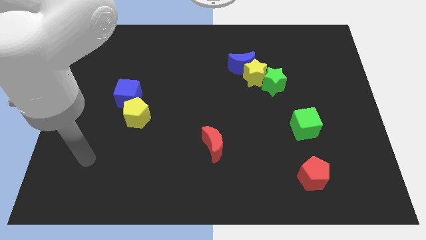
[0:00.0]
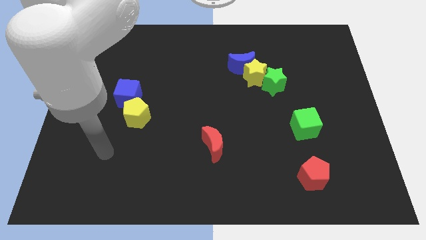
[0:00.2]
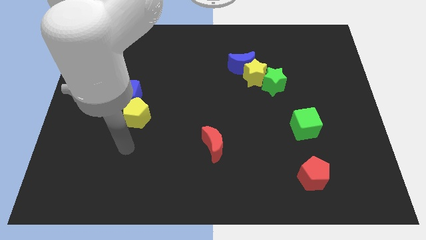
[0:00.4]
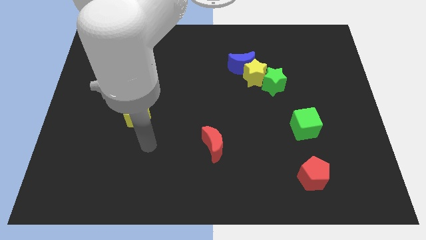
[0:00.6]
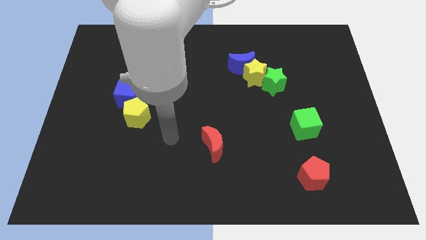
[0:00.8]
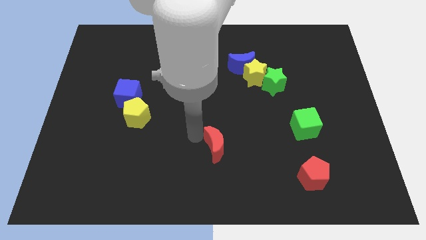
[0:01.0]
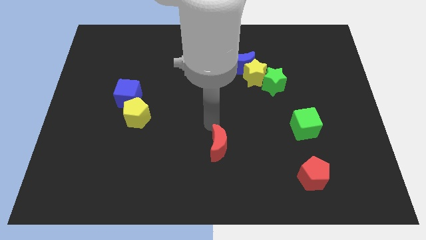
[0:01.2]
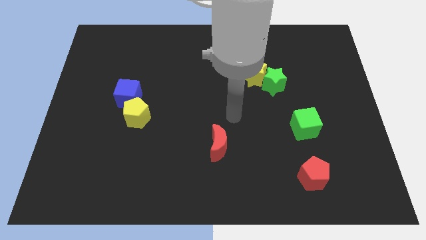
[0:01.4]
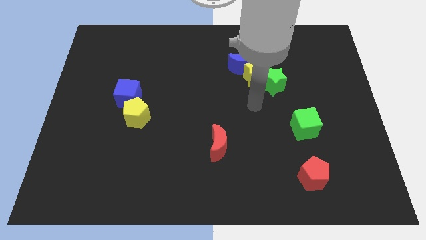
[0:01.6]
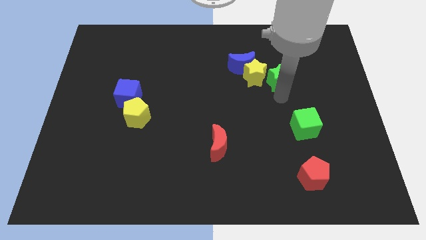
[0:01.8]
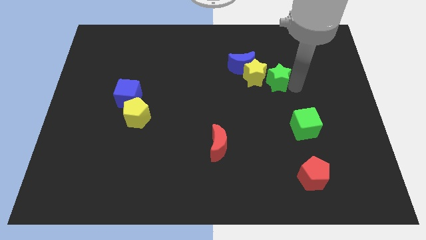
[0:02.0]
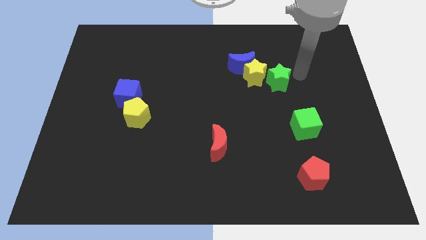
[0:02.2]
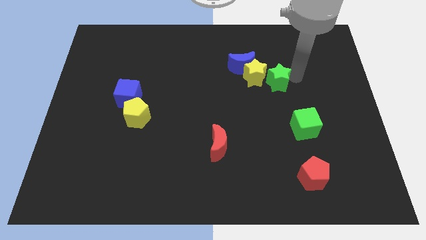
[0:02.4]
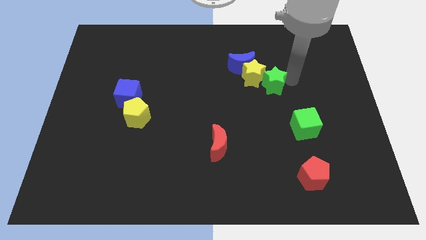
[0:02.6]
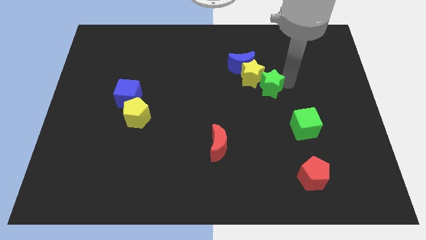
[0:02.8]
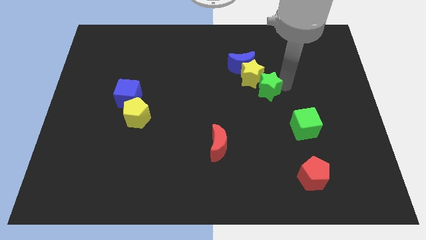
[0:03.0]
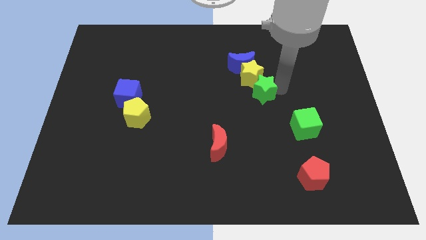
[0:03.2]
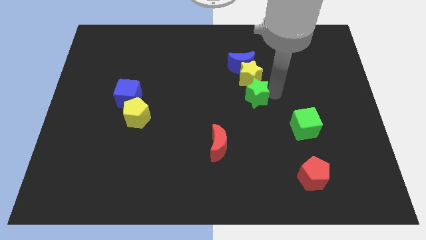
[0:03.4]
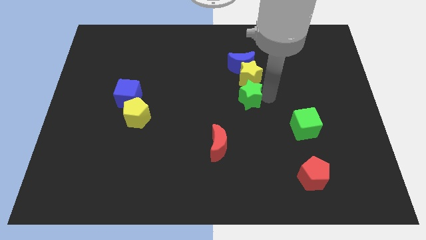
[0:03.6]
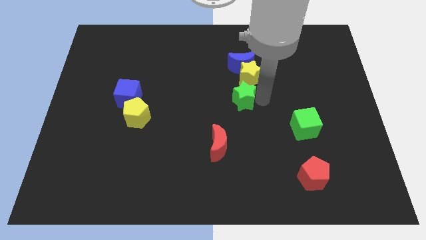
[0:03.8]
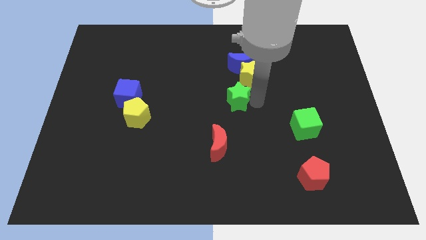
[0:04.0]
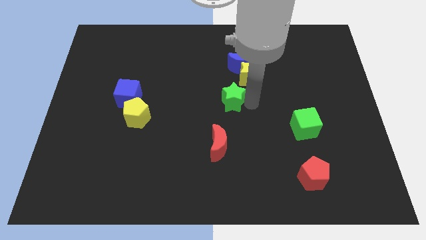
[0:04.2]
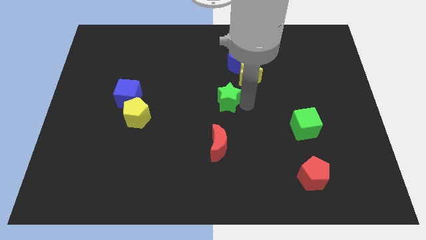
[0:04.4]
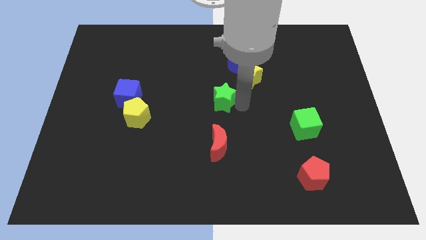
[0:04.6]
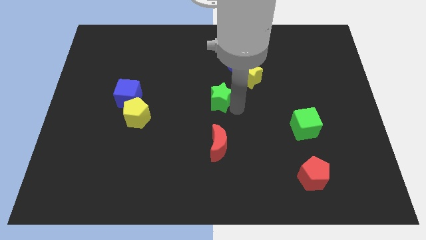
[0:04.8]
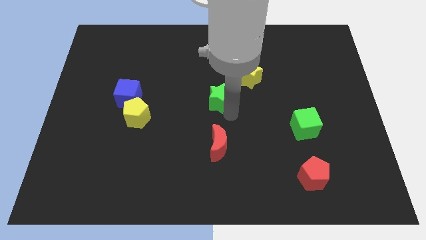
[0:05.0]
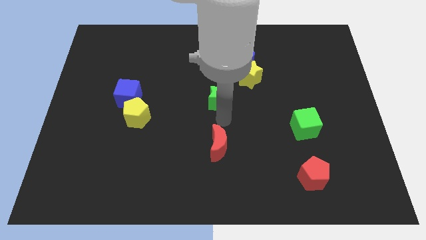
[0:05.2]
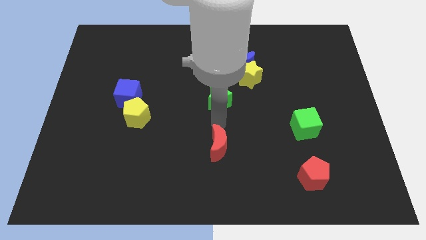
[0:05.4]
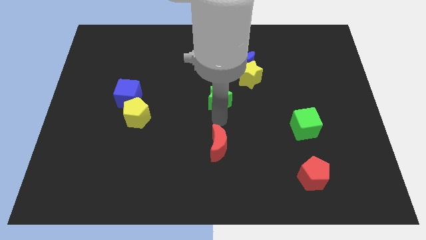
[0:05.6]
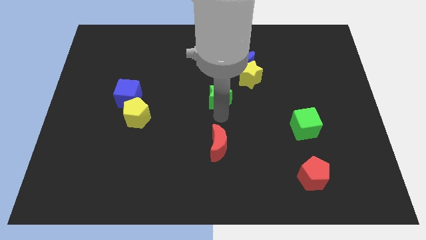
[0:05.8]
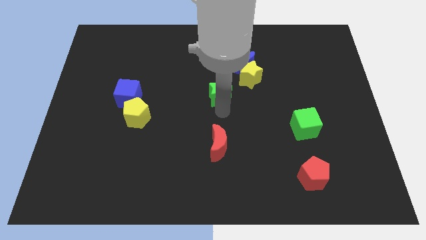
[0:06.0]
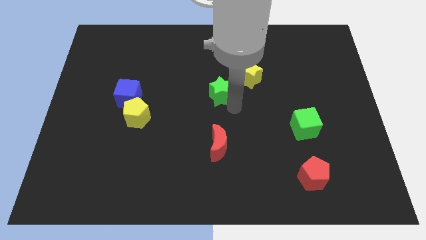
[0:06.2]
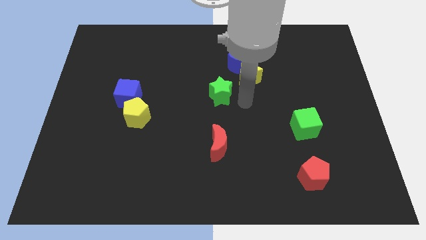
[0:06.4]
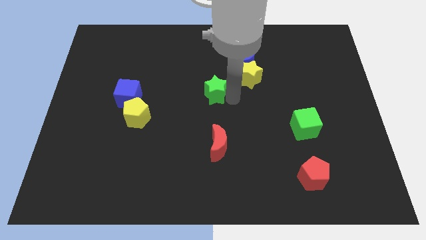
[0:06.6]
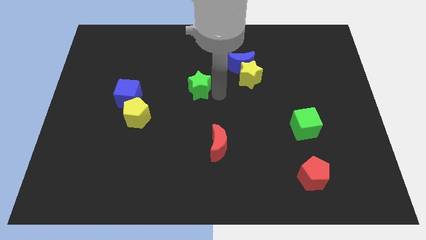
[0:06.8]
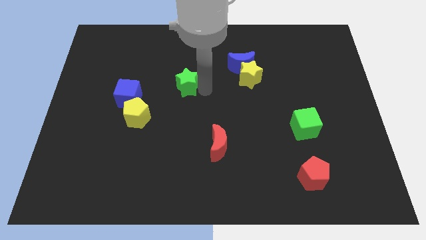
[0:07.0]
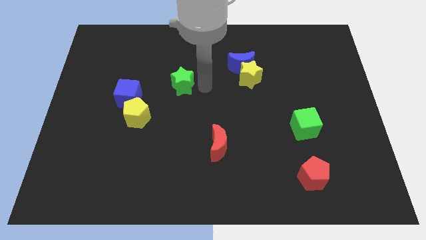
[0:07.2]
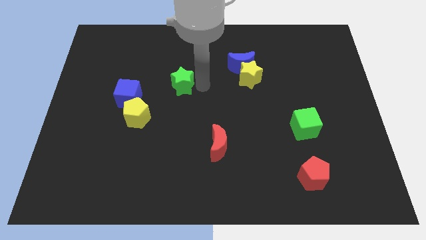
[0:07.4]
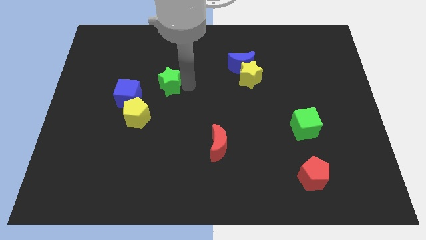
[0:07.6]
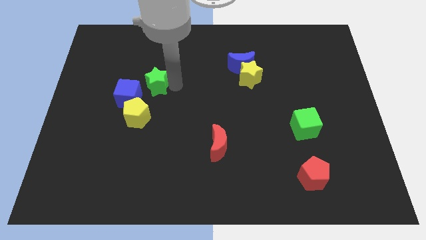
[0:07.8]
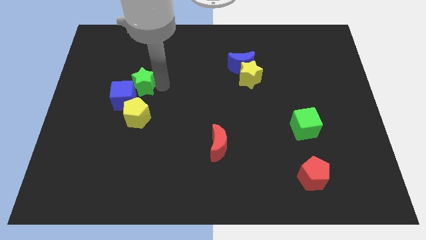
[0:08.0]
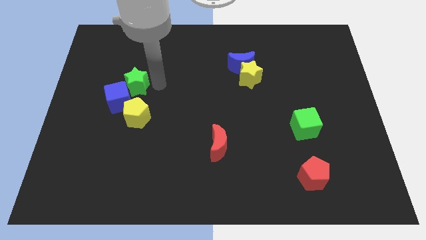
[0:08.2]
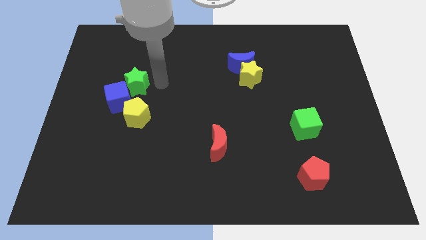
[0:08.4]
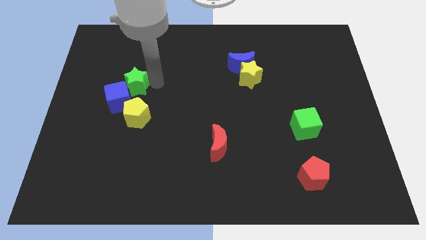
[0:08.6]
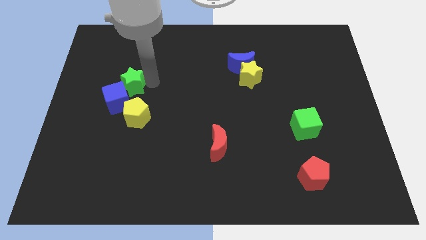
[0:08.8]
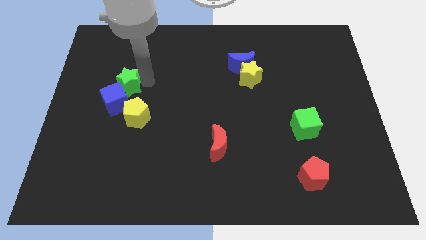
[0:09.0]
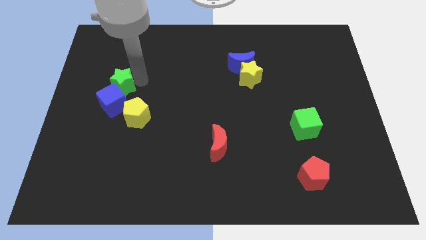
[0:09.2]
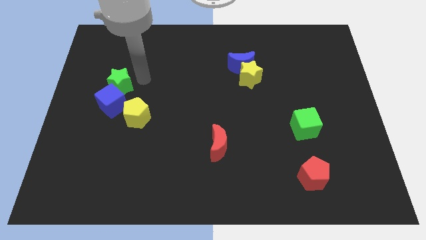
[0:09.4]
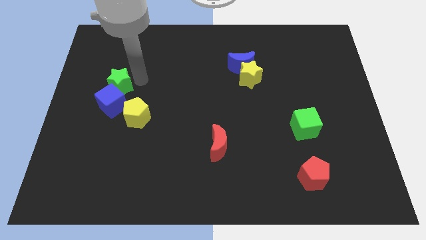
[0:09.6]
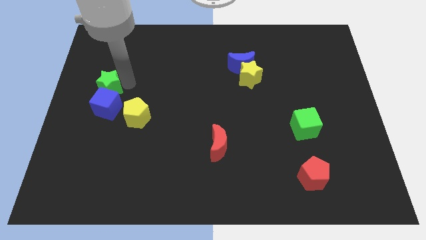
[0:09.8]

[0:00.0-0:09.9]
push the green star to the center left

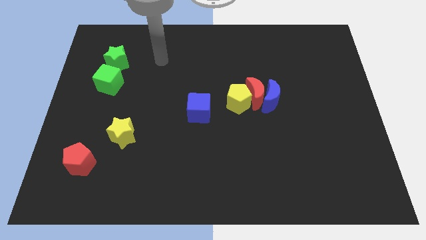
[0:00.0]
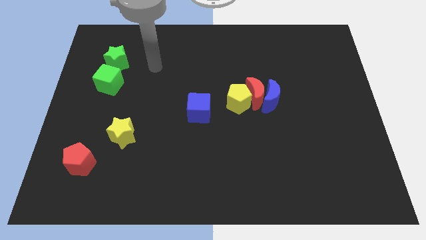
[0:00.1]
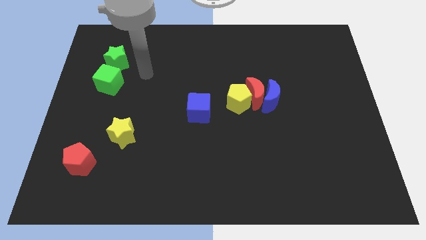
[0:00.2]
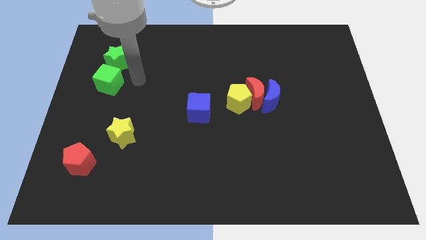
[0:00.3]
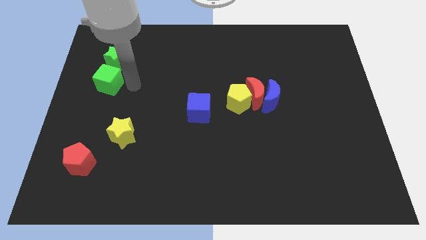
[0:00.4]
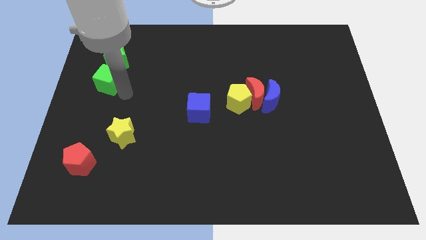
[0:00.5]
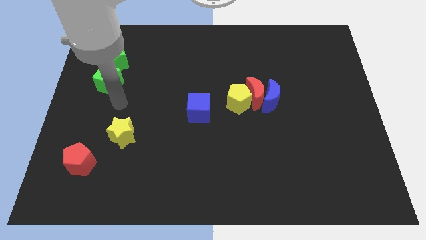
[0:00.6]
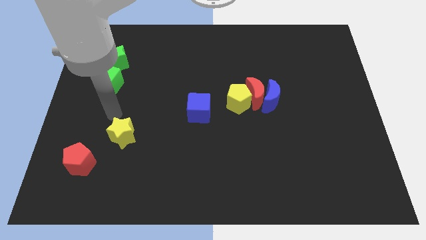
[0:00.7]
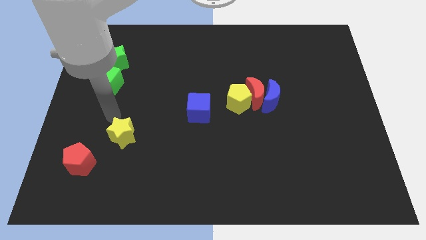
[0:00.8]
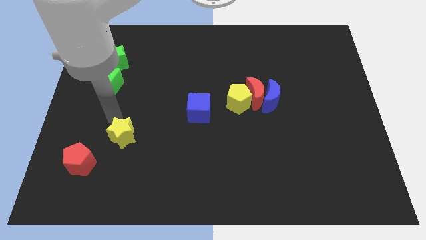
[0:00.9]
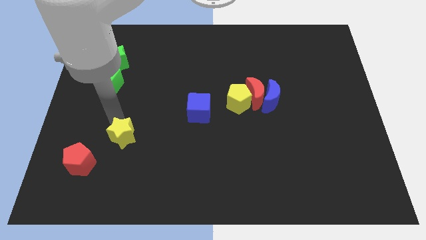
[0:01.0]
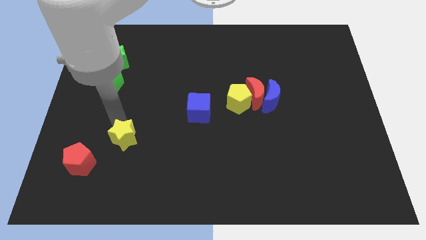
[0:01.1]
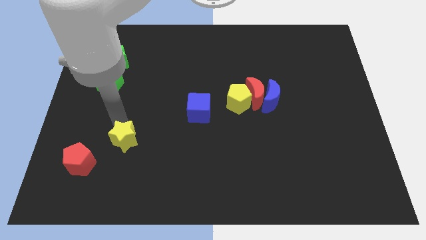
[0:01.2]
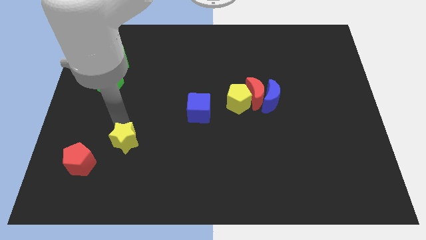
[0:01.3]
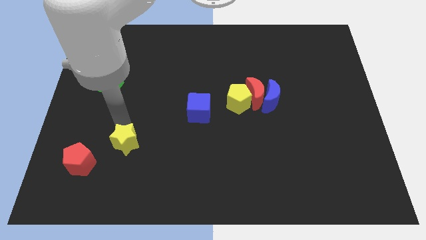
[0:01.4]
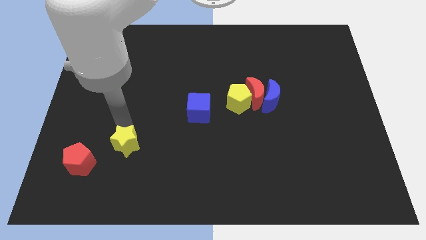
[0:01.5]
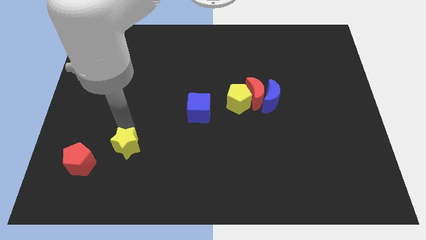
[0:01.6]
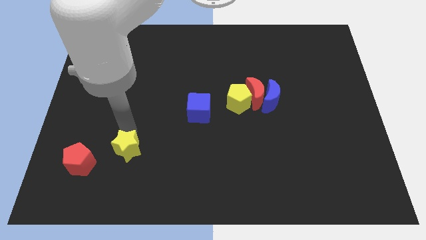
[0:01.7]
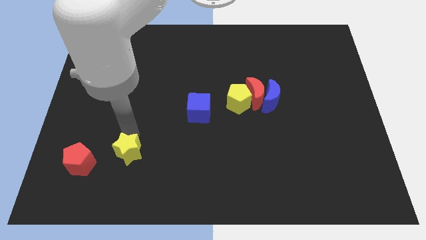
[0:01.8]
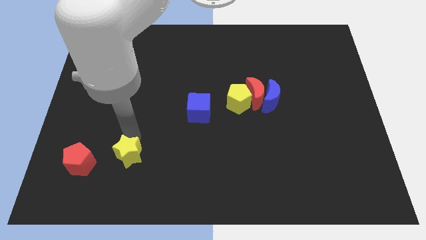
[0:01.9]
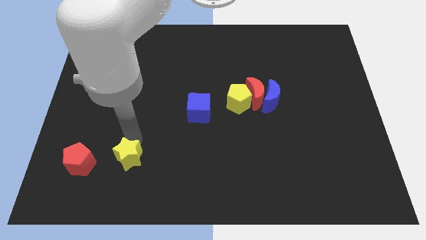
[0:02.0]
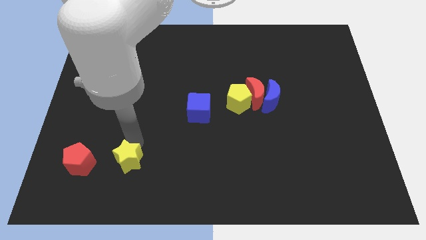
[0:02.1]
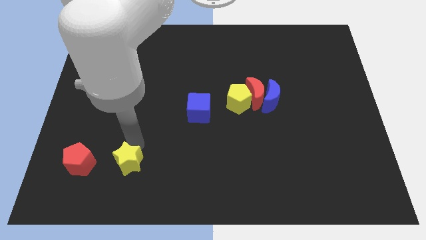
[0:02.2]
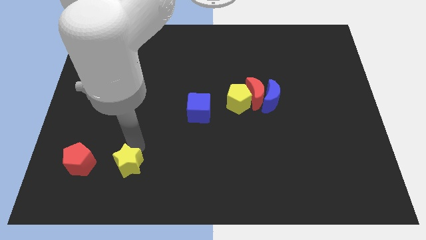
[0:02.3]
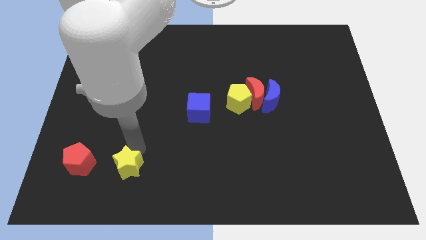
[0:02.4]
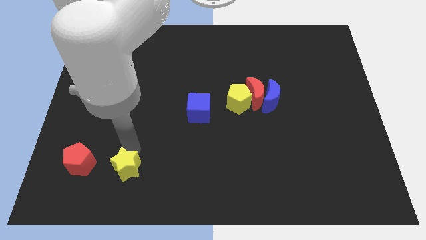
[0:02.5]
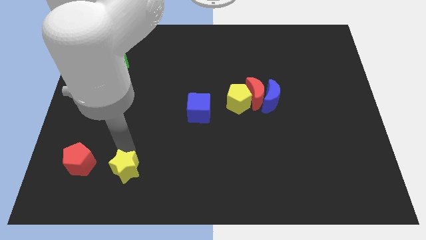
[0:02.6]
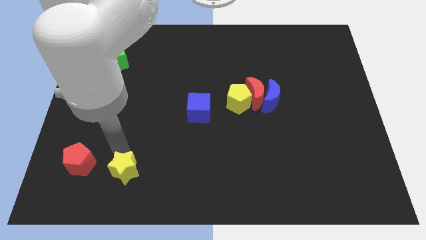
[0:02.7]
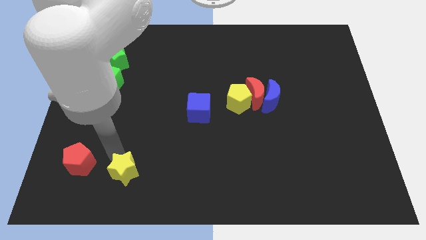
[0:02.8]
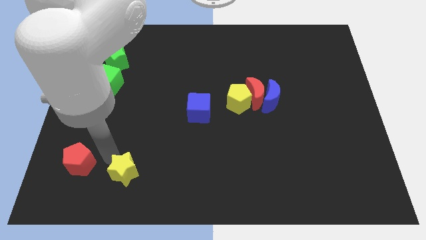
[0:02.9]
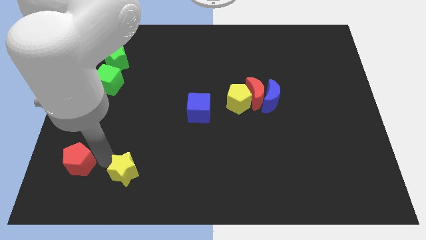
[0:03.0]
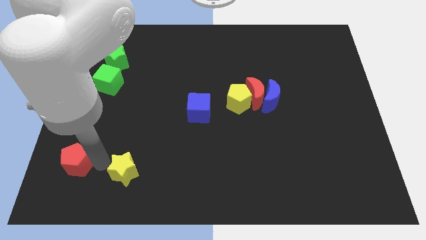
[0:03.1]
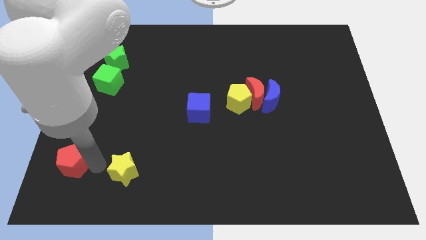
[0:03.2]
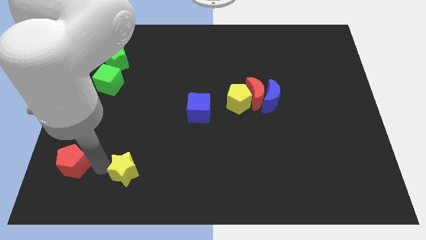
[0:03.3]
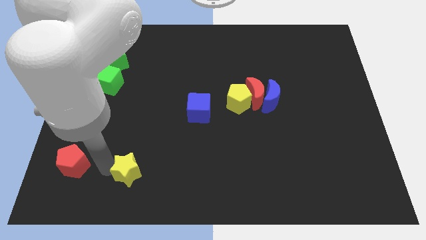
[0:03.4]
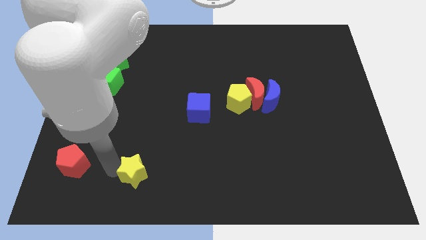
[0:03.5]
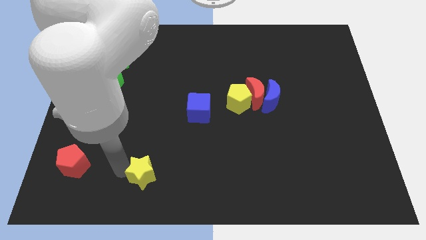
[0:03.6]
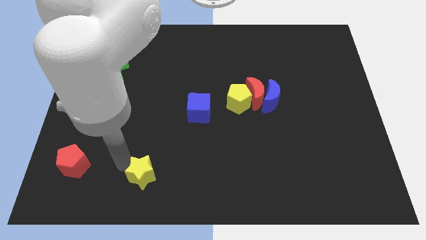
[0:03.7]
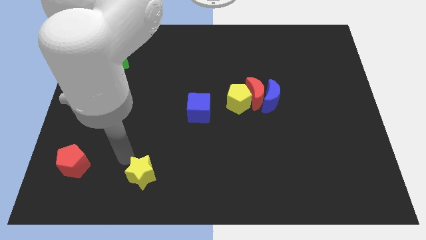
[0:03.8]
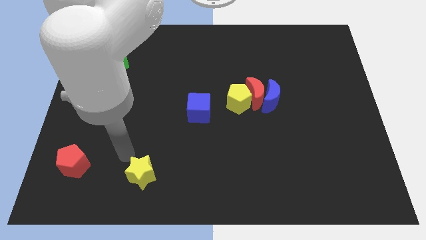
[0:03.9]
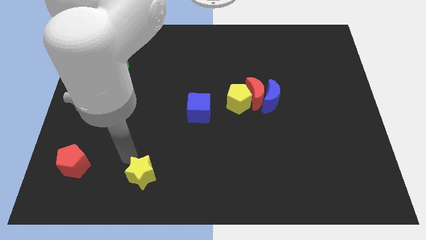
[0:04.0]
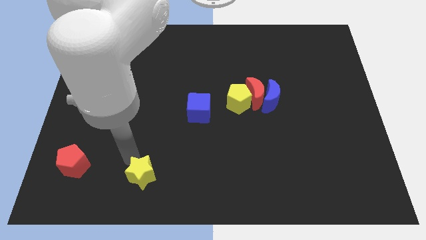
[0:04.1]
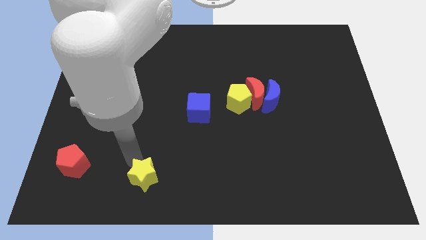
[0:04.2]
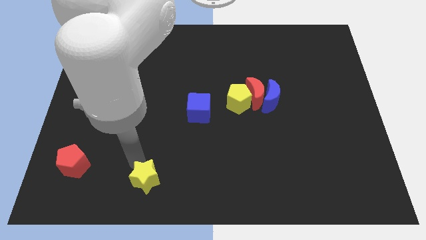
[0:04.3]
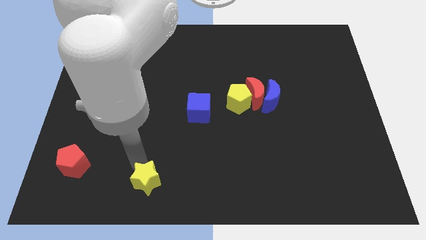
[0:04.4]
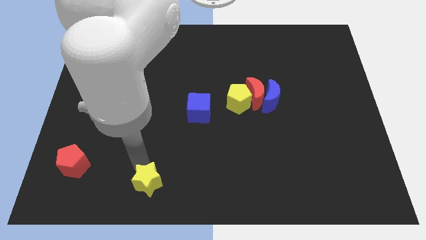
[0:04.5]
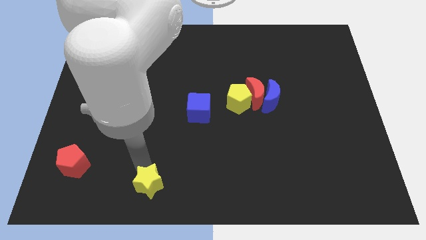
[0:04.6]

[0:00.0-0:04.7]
put the yellow star to the bottom
